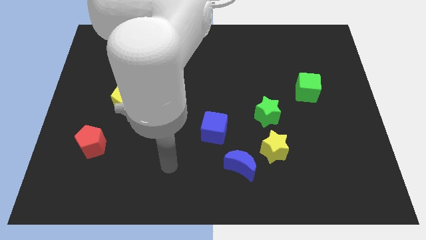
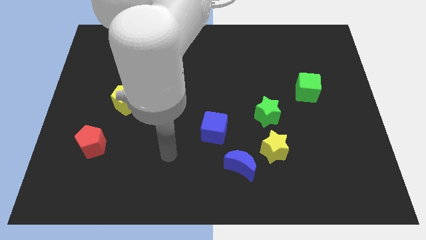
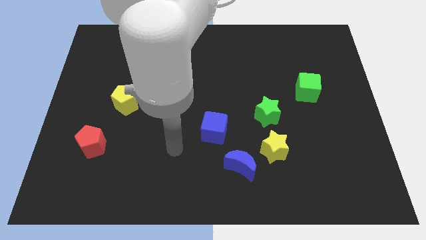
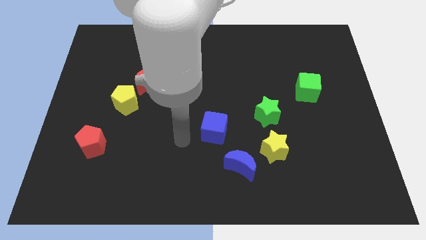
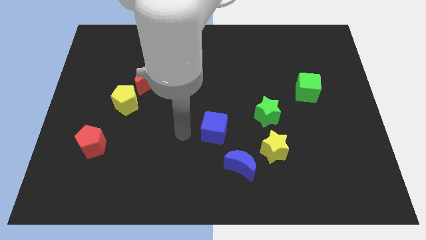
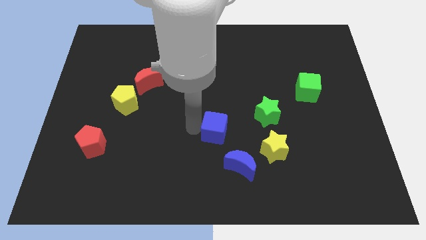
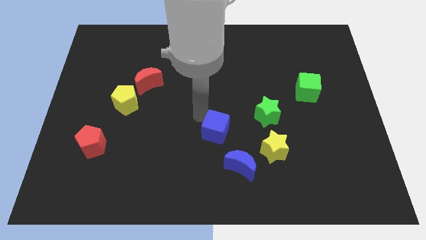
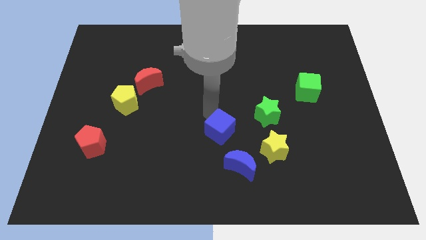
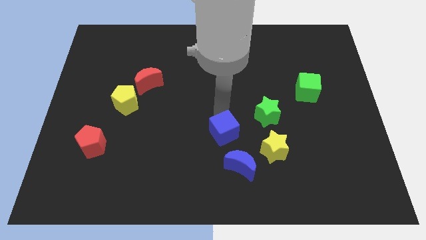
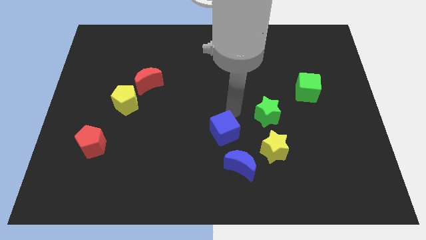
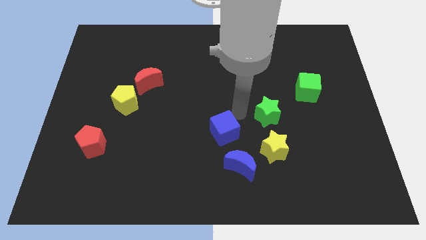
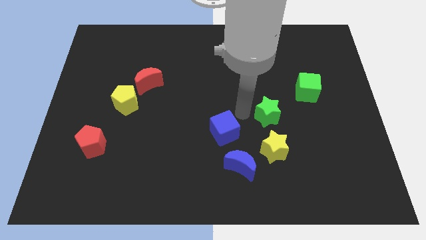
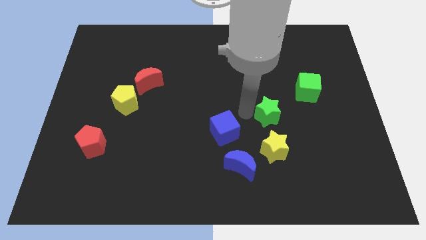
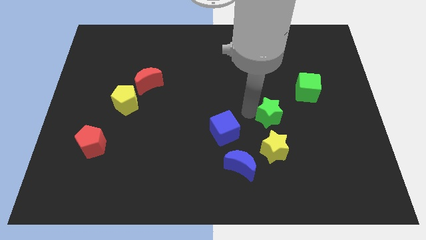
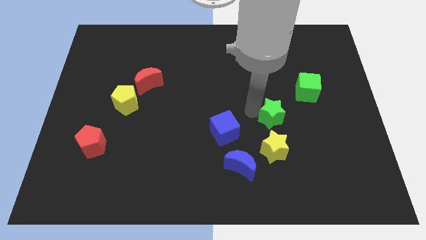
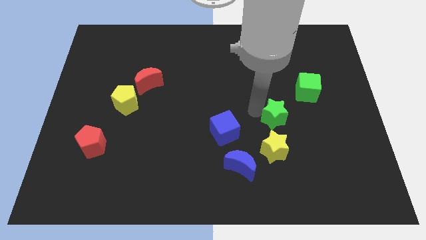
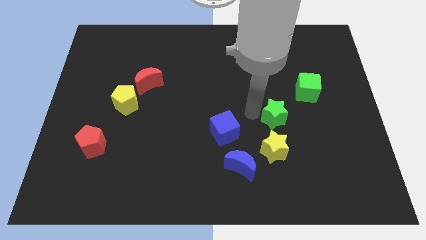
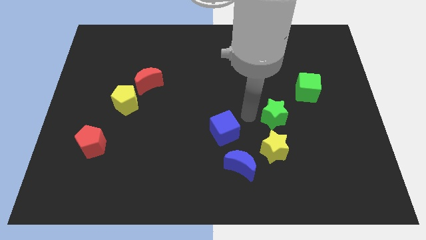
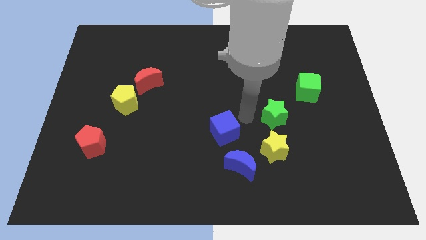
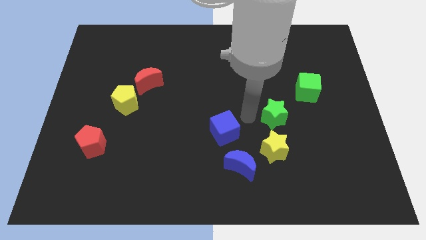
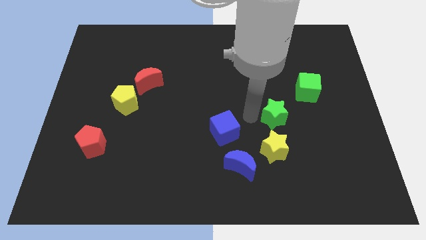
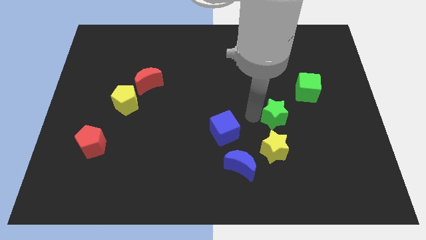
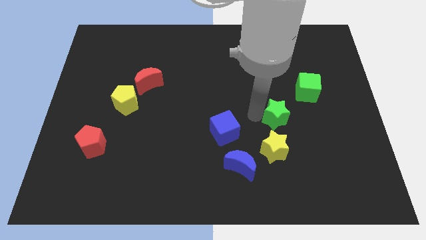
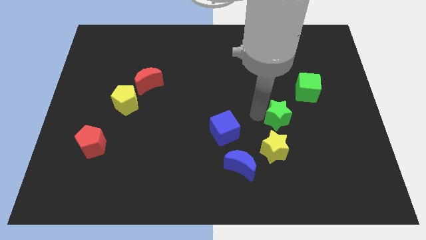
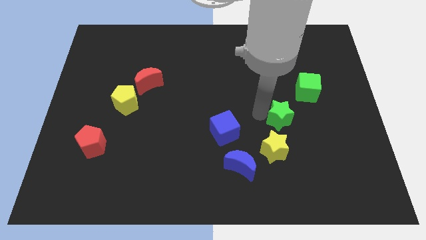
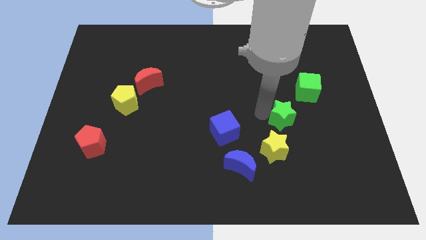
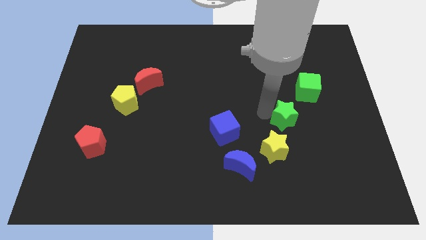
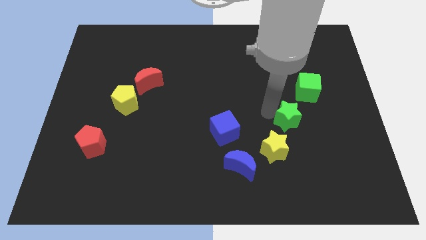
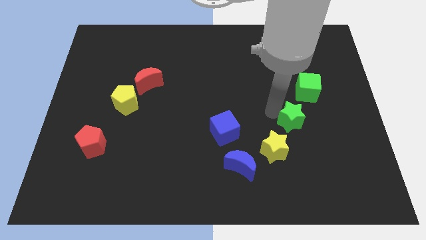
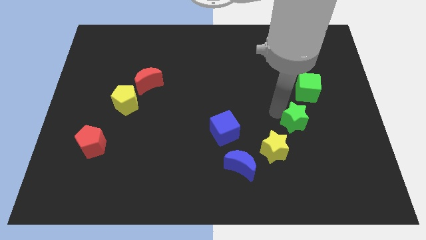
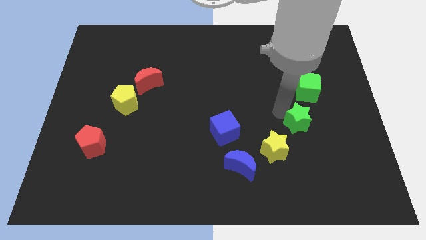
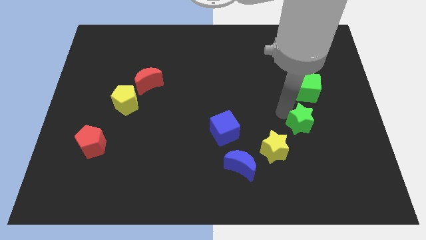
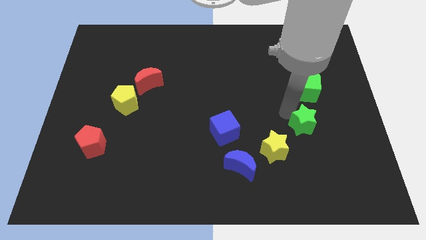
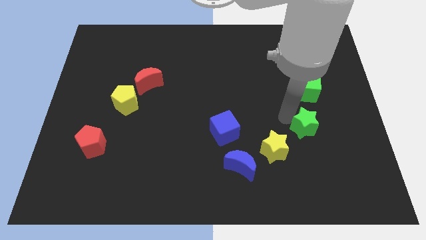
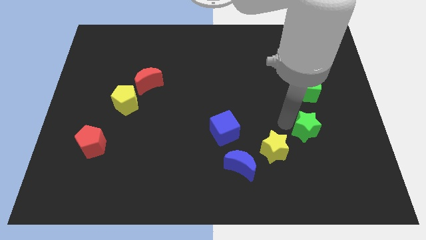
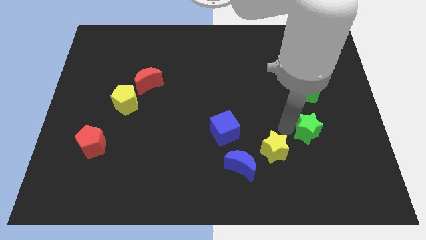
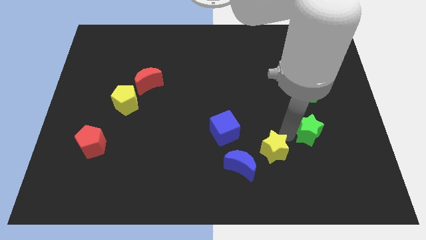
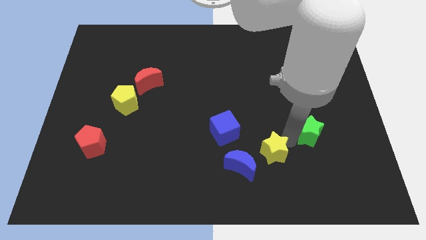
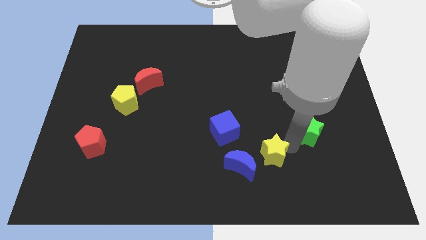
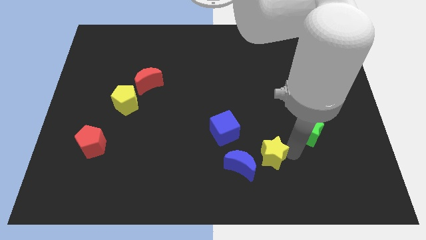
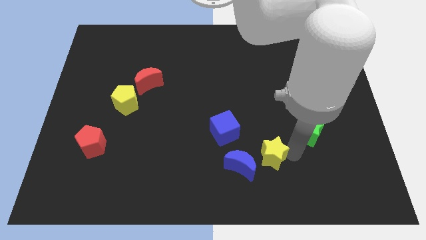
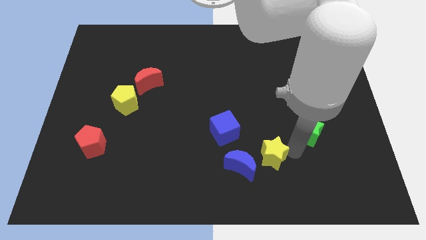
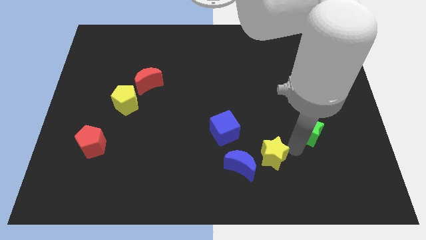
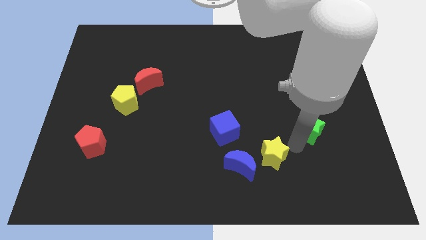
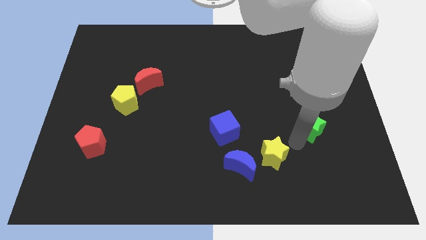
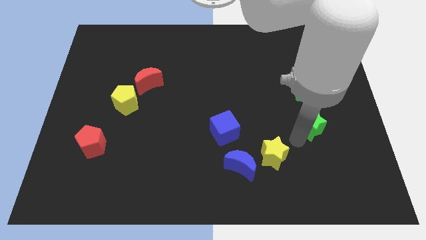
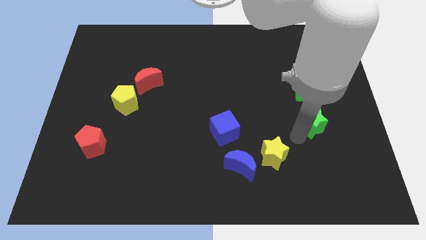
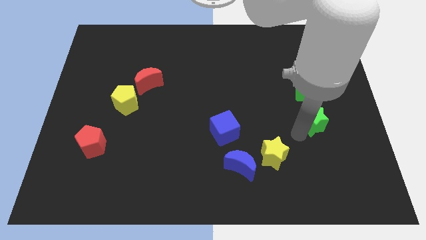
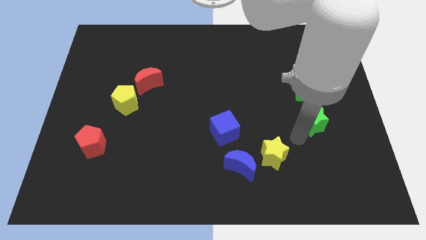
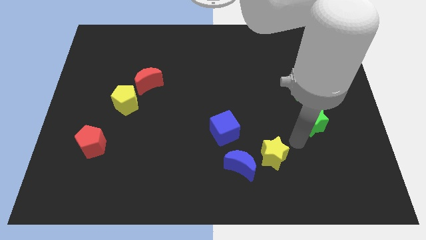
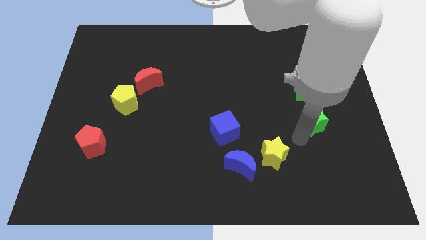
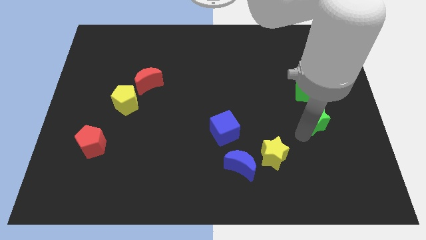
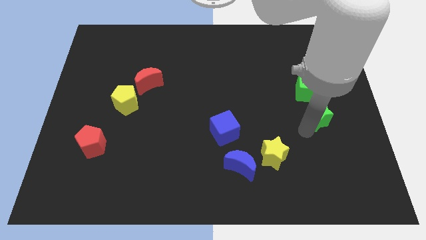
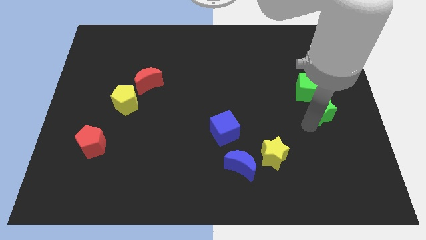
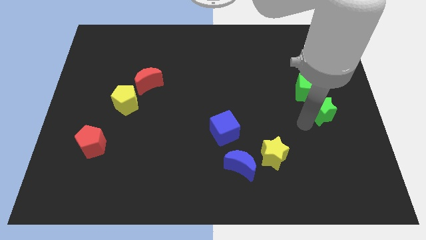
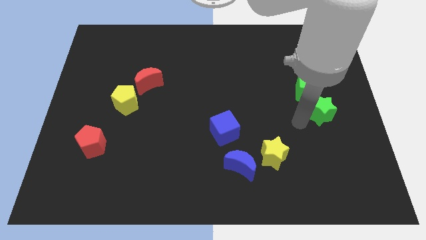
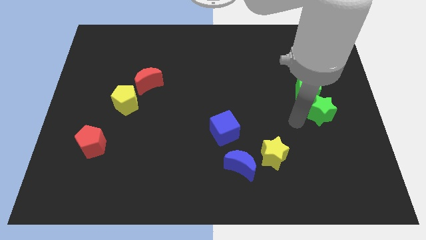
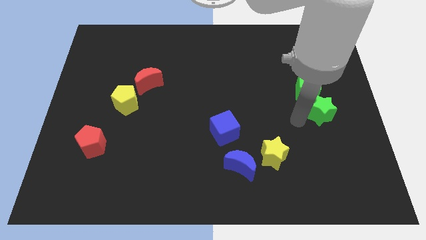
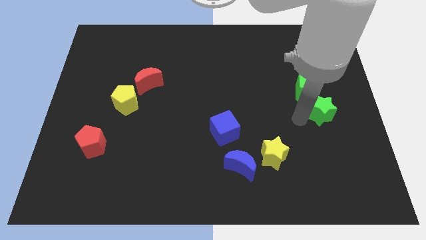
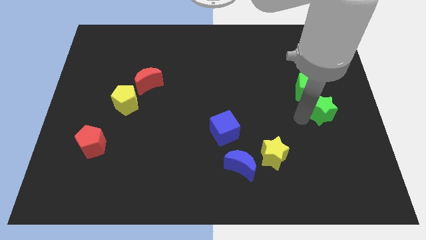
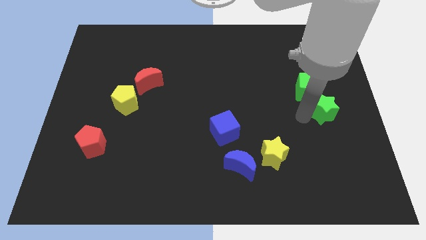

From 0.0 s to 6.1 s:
slide the green star to the center right
